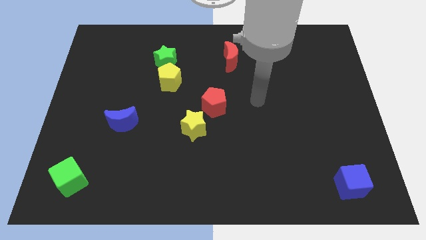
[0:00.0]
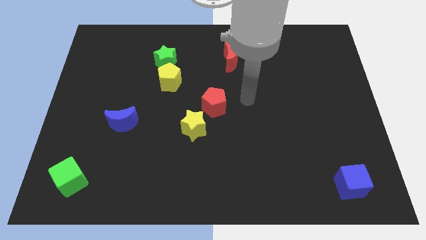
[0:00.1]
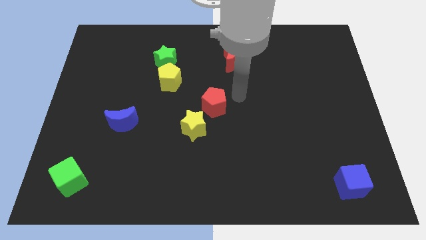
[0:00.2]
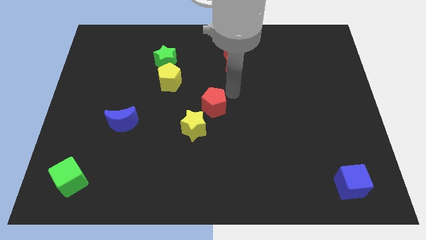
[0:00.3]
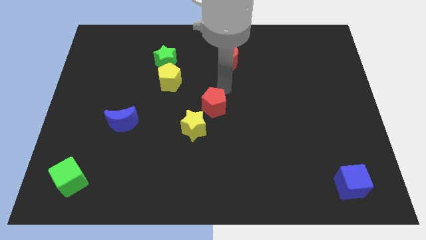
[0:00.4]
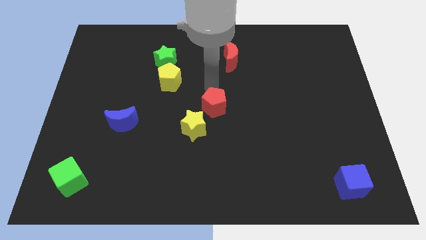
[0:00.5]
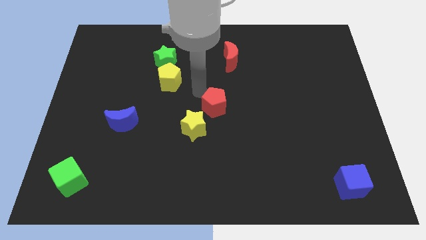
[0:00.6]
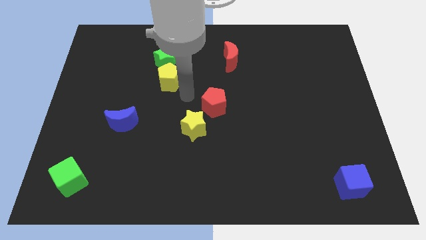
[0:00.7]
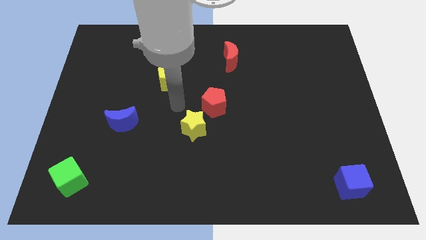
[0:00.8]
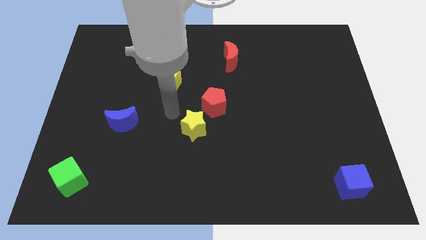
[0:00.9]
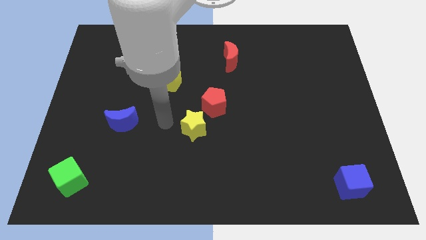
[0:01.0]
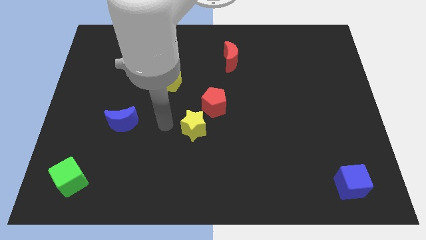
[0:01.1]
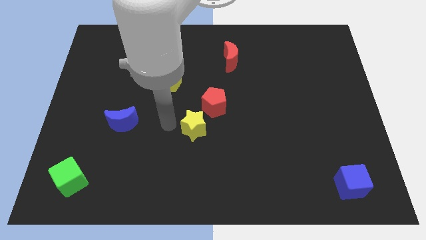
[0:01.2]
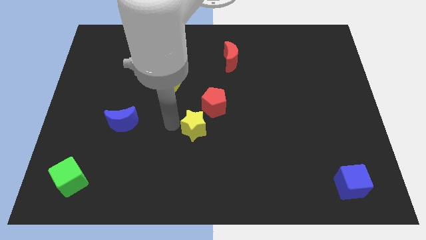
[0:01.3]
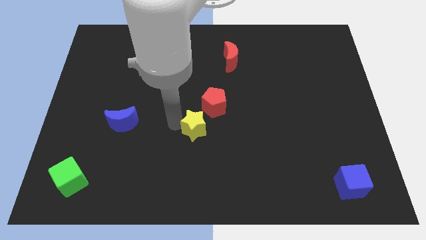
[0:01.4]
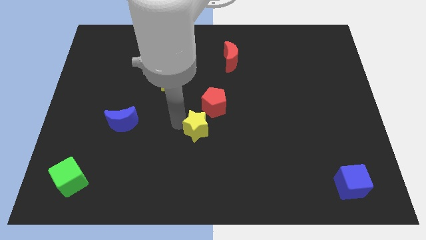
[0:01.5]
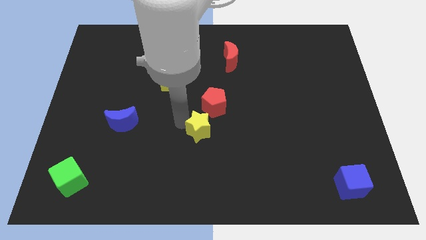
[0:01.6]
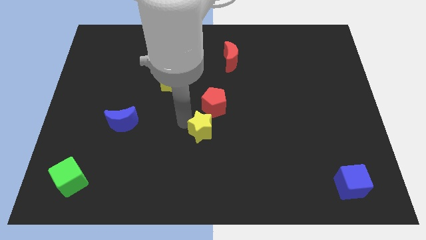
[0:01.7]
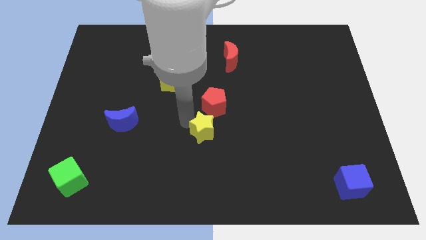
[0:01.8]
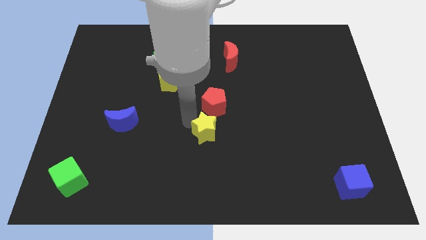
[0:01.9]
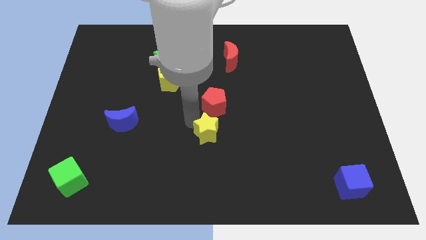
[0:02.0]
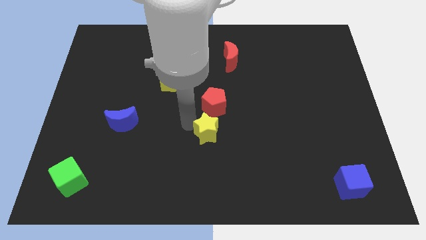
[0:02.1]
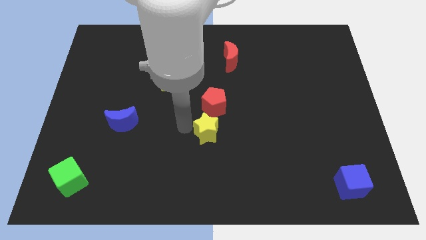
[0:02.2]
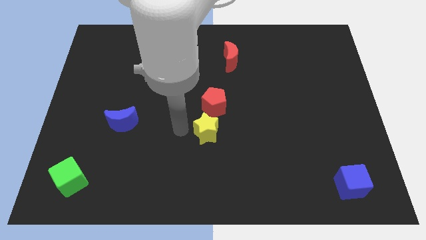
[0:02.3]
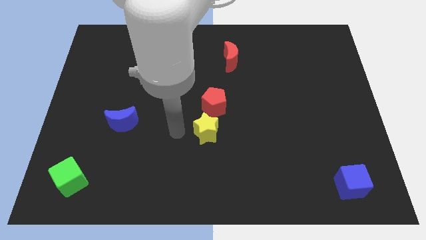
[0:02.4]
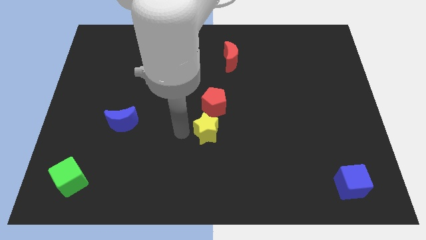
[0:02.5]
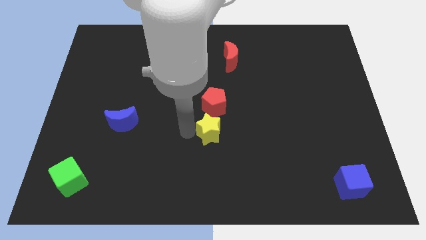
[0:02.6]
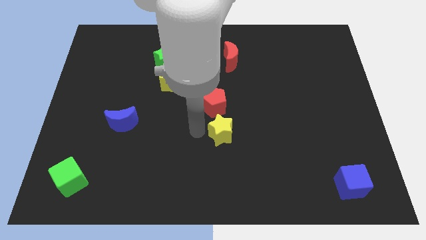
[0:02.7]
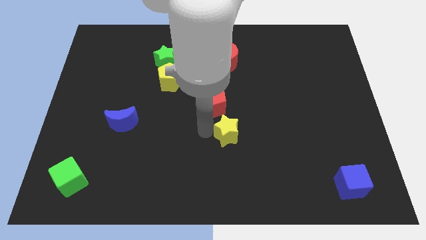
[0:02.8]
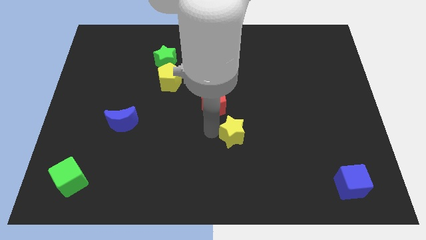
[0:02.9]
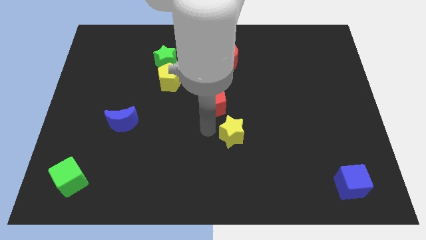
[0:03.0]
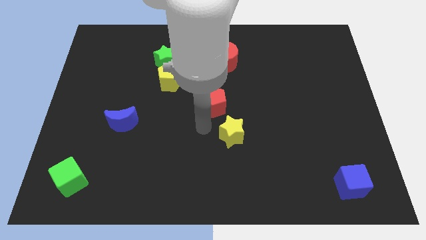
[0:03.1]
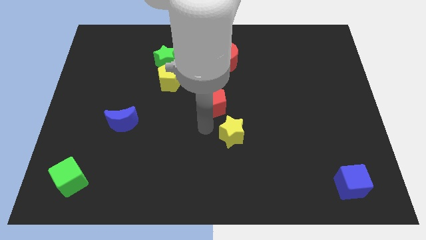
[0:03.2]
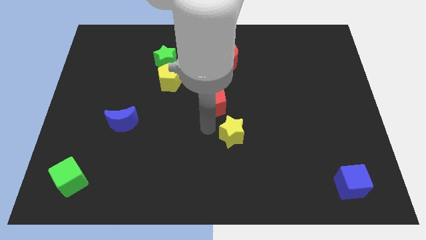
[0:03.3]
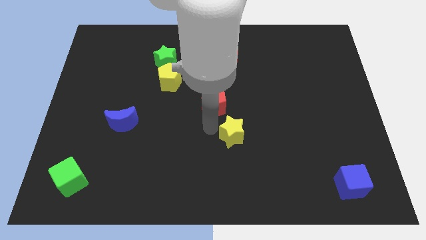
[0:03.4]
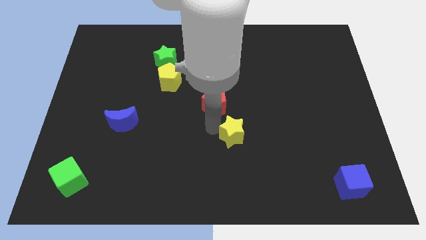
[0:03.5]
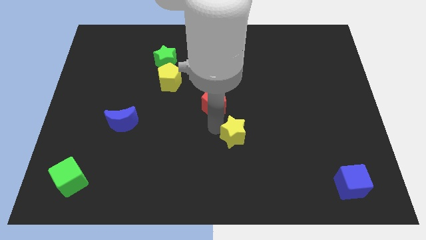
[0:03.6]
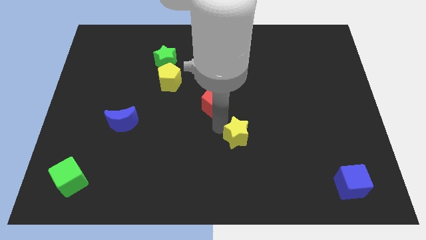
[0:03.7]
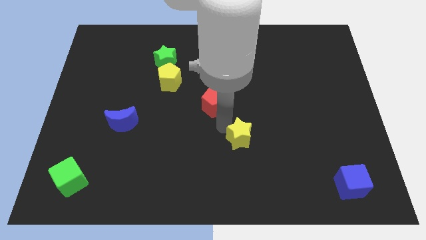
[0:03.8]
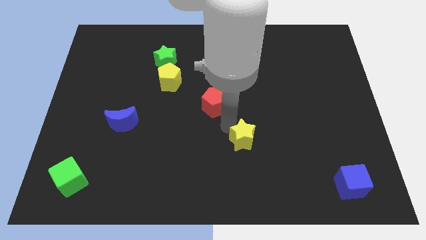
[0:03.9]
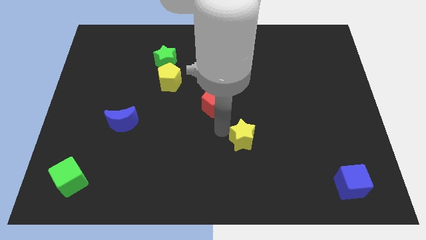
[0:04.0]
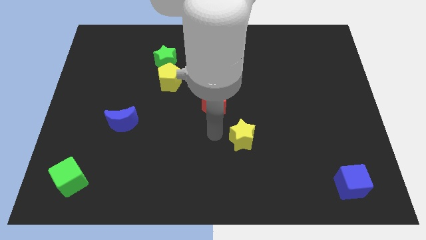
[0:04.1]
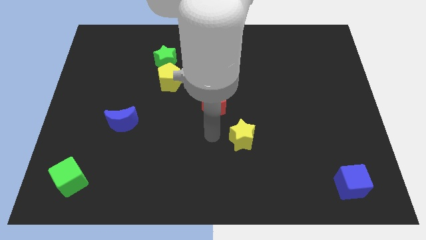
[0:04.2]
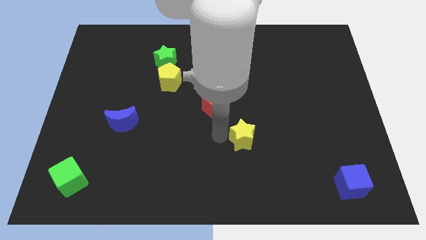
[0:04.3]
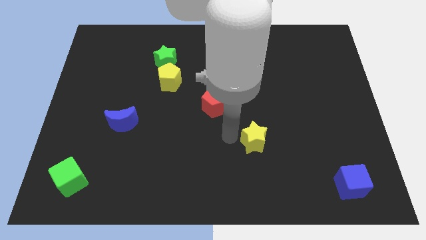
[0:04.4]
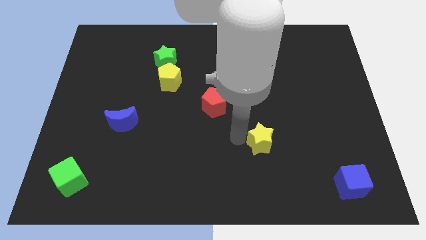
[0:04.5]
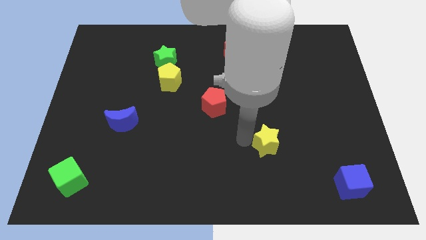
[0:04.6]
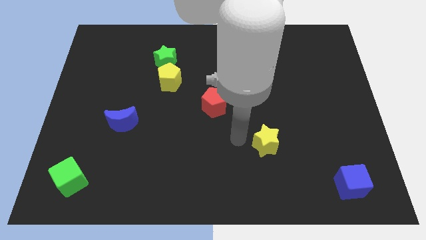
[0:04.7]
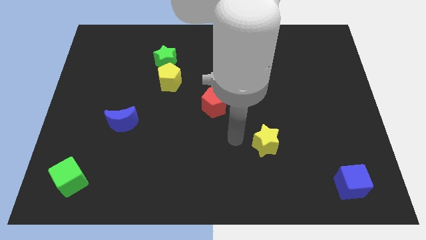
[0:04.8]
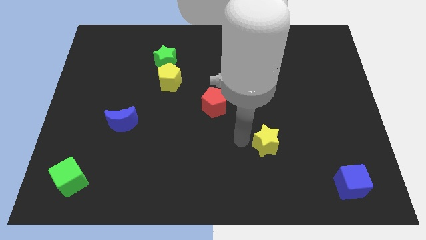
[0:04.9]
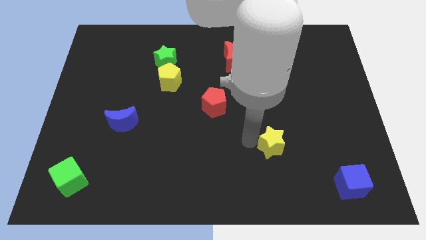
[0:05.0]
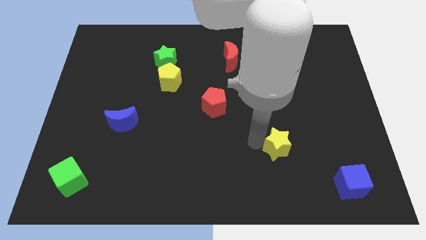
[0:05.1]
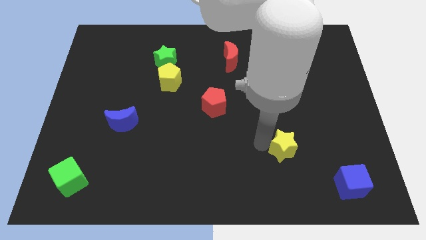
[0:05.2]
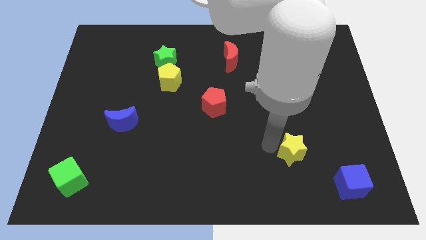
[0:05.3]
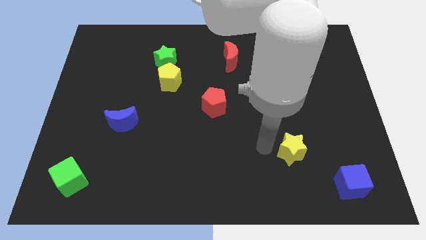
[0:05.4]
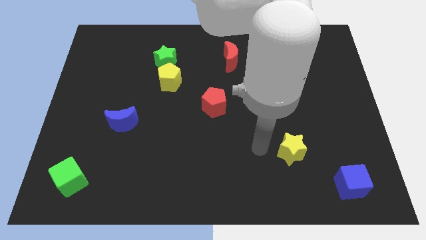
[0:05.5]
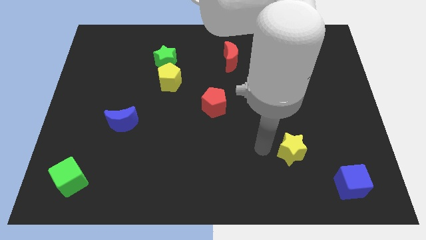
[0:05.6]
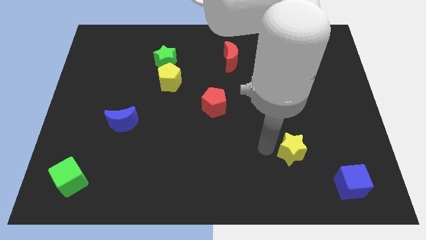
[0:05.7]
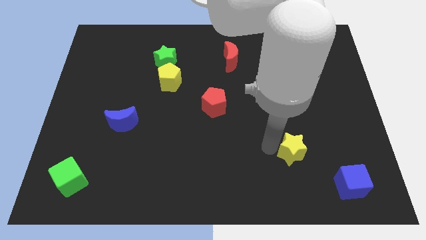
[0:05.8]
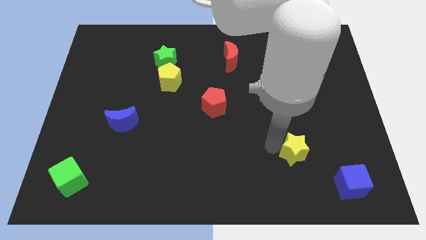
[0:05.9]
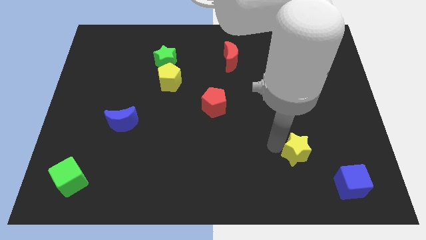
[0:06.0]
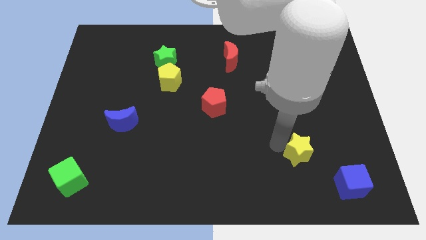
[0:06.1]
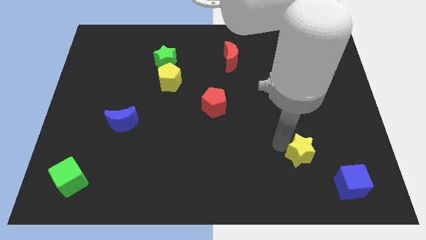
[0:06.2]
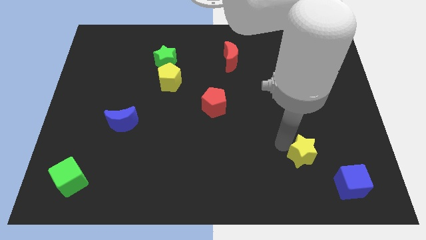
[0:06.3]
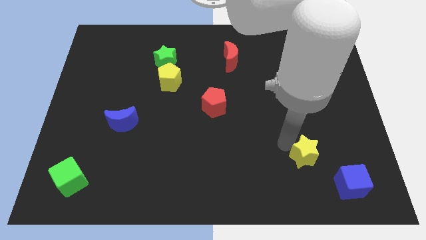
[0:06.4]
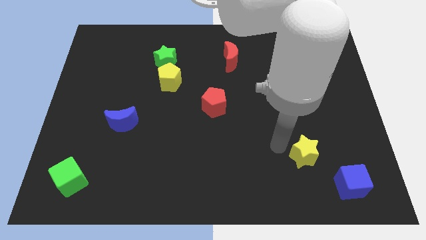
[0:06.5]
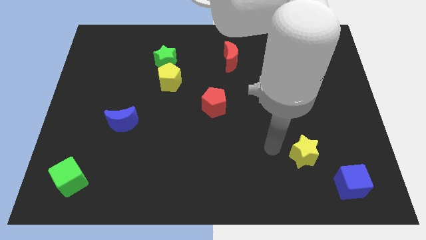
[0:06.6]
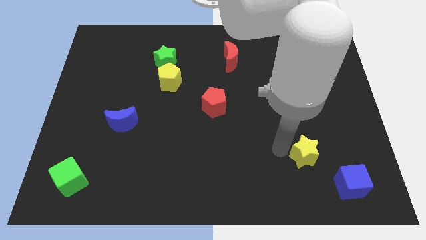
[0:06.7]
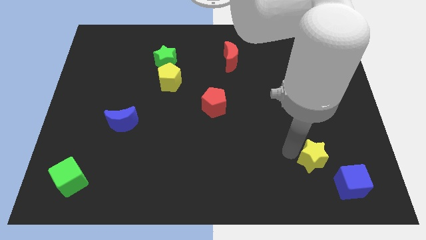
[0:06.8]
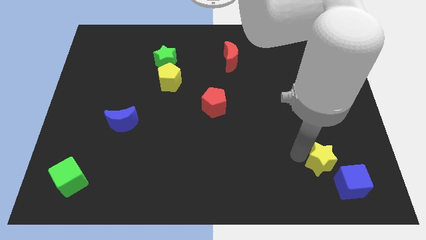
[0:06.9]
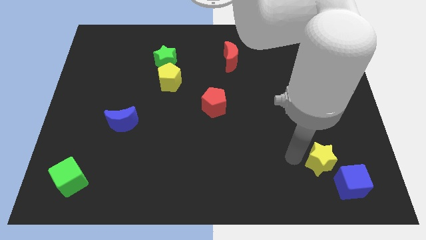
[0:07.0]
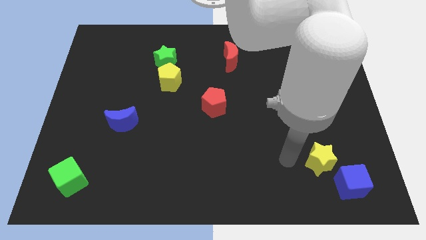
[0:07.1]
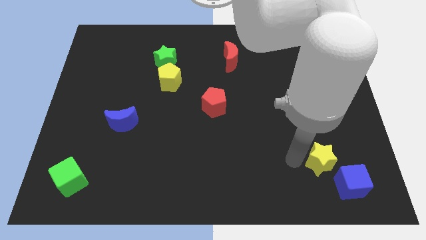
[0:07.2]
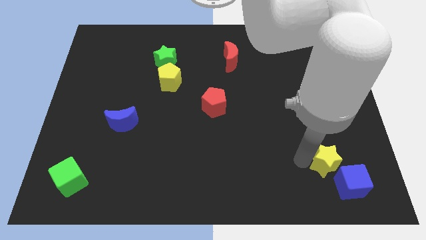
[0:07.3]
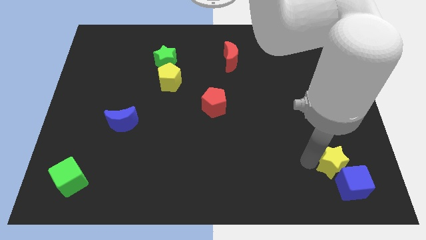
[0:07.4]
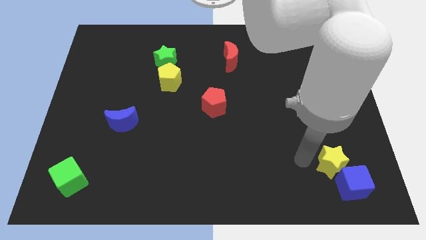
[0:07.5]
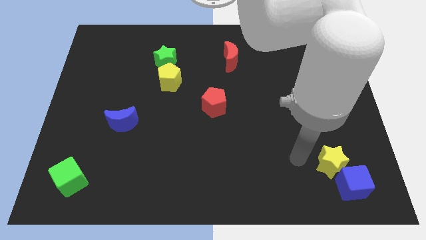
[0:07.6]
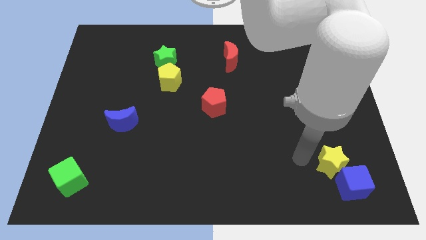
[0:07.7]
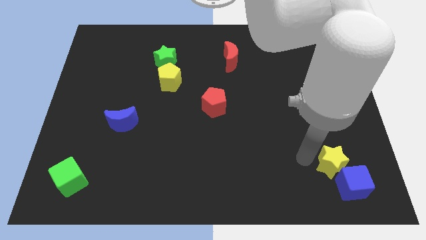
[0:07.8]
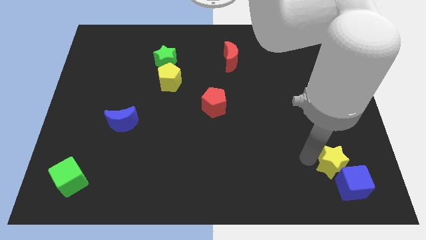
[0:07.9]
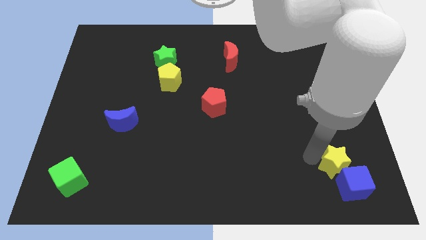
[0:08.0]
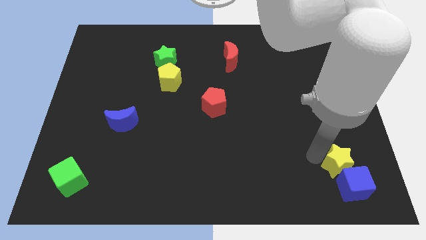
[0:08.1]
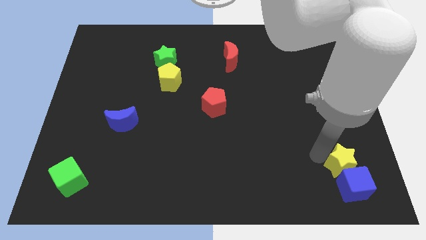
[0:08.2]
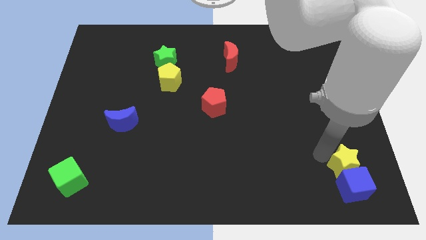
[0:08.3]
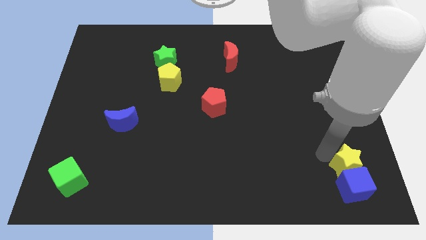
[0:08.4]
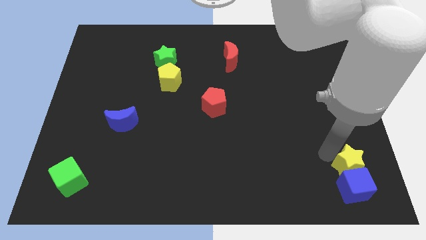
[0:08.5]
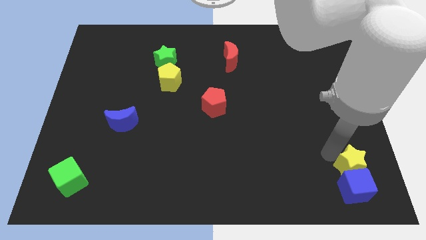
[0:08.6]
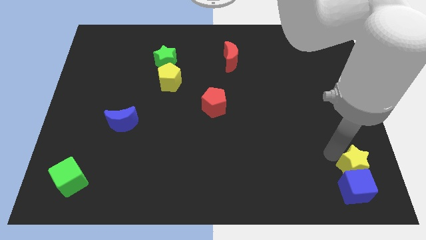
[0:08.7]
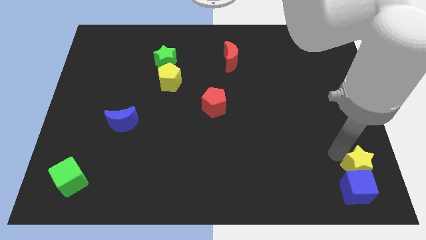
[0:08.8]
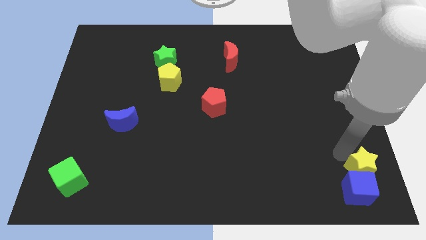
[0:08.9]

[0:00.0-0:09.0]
push the yellow star to the bottom right corner
